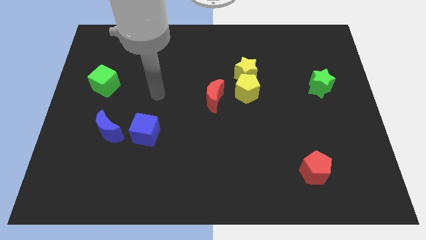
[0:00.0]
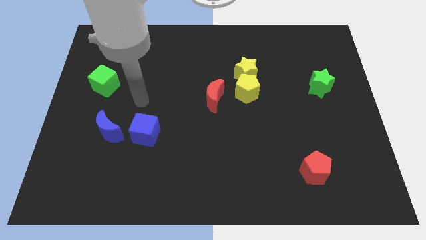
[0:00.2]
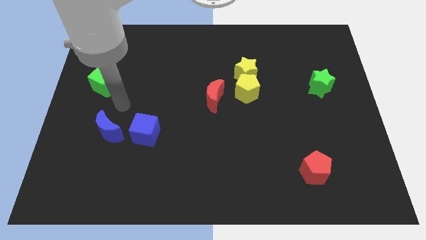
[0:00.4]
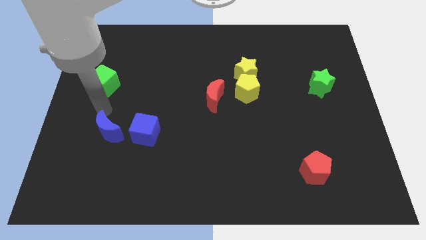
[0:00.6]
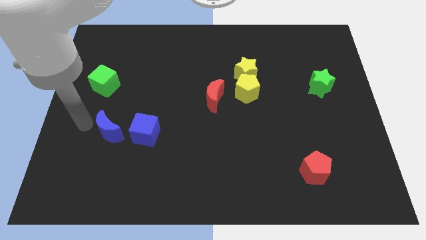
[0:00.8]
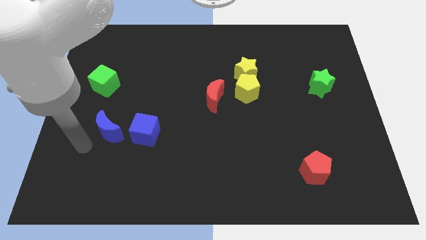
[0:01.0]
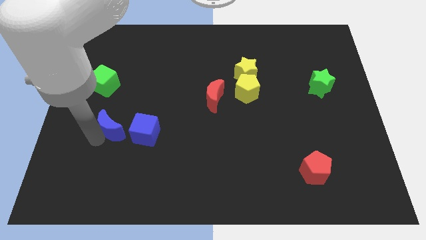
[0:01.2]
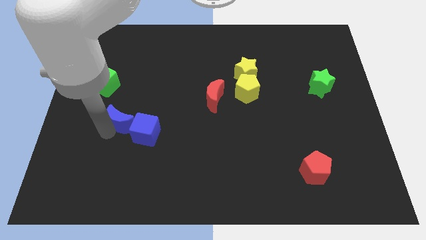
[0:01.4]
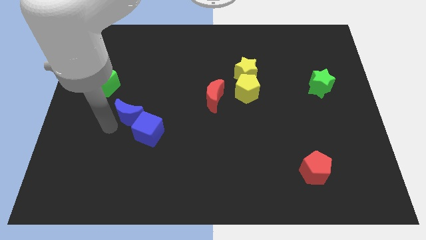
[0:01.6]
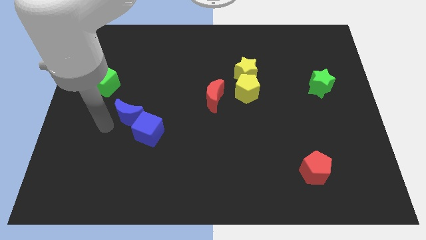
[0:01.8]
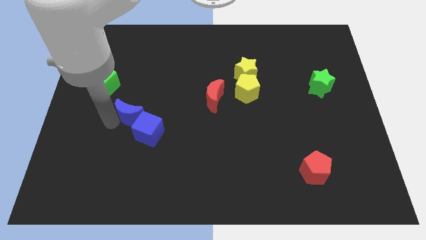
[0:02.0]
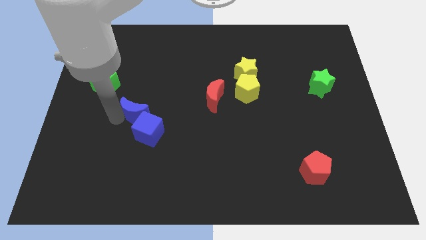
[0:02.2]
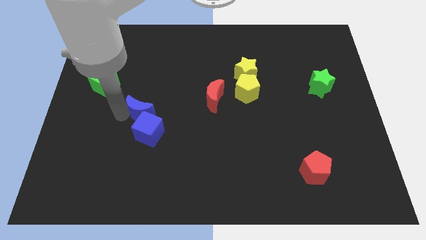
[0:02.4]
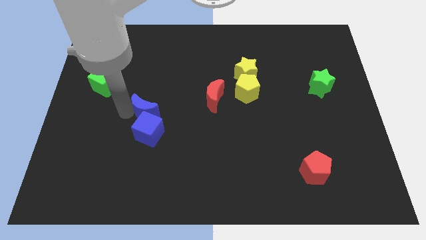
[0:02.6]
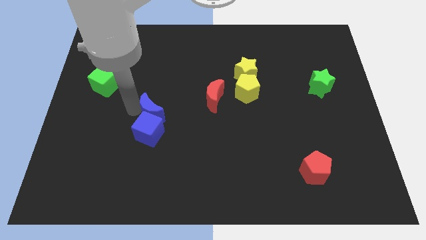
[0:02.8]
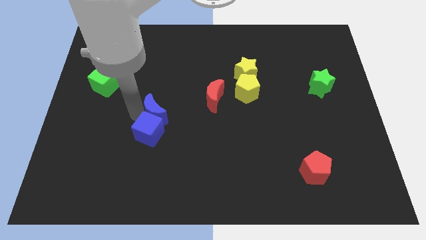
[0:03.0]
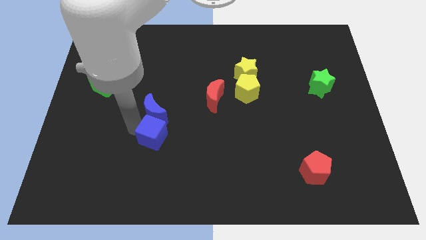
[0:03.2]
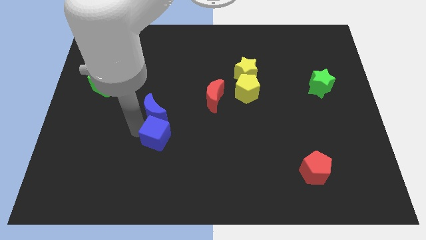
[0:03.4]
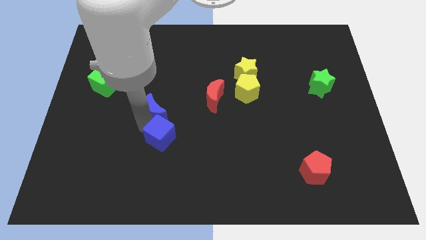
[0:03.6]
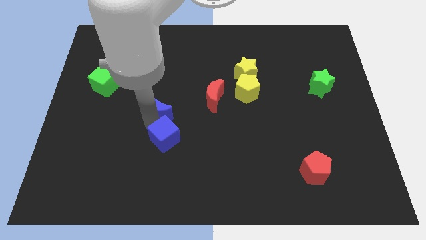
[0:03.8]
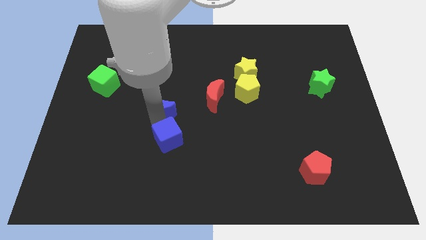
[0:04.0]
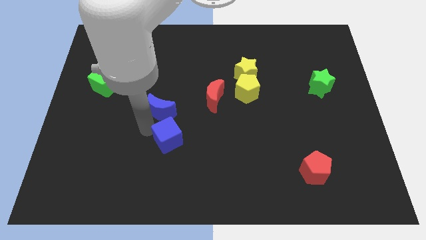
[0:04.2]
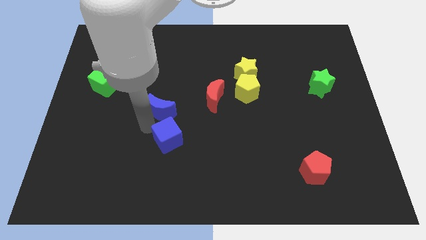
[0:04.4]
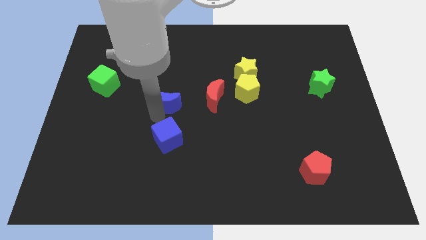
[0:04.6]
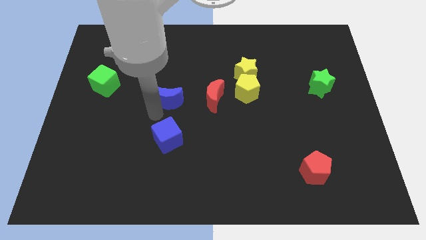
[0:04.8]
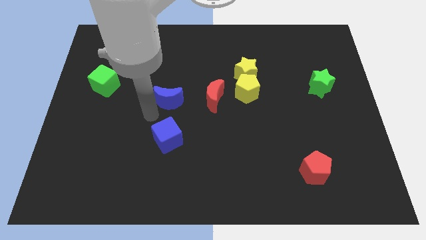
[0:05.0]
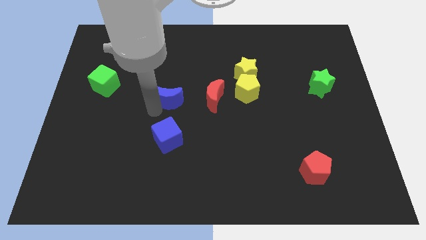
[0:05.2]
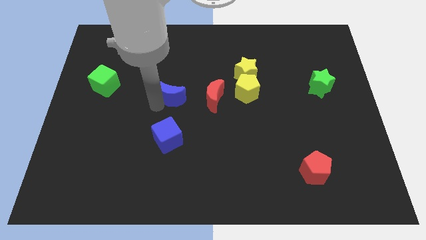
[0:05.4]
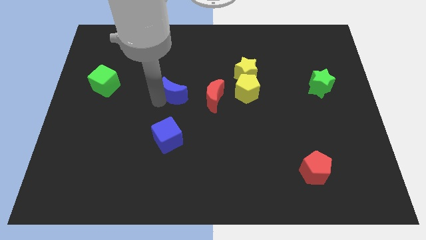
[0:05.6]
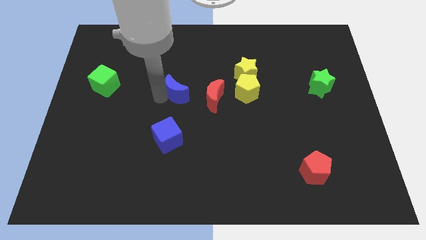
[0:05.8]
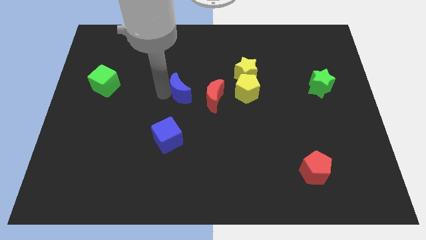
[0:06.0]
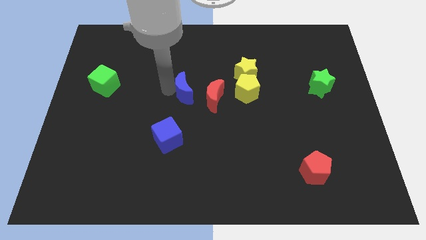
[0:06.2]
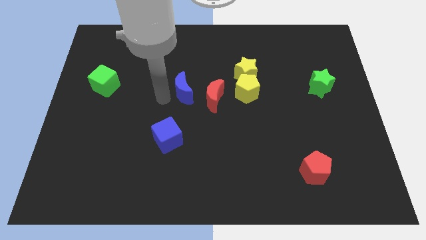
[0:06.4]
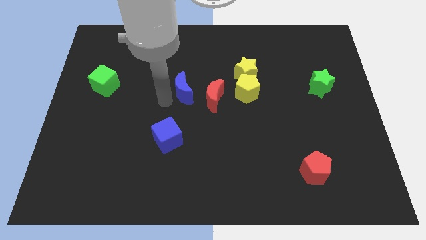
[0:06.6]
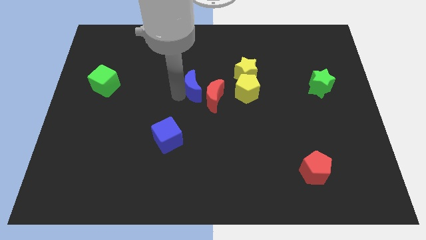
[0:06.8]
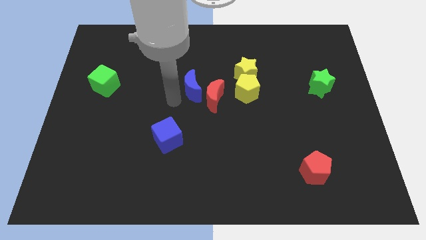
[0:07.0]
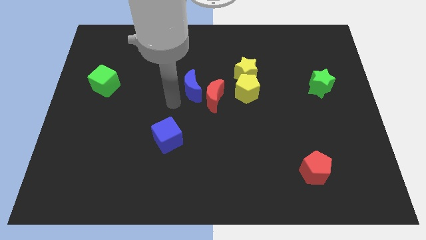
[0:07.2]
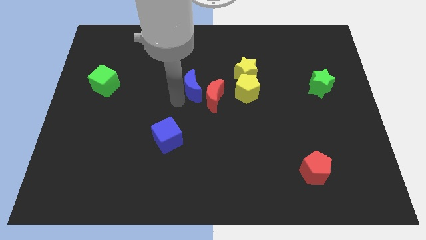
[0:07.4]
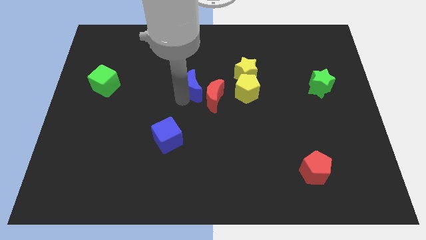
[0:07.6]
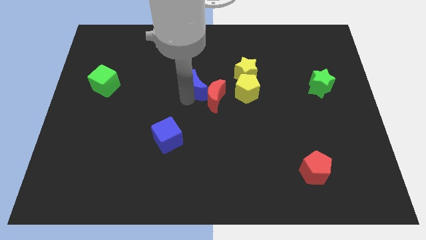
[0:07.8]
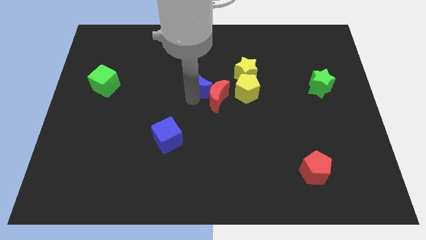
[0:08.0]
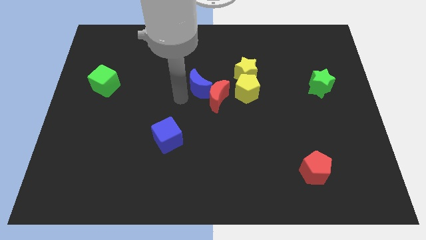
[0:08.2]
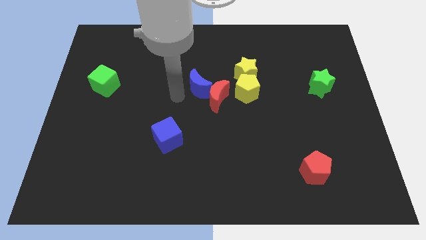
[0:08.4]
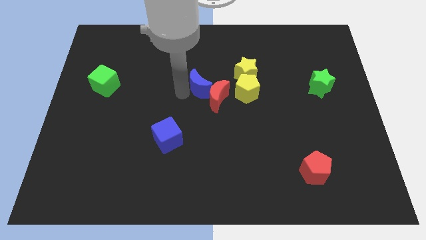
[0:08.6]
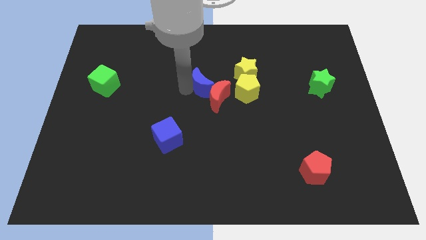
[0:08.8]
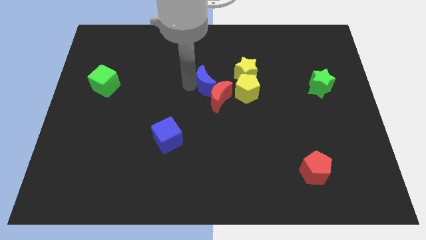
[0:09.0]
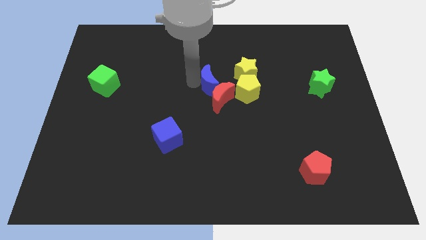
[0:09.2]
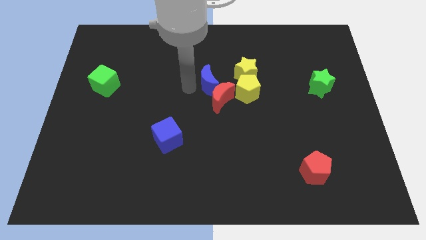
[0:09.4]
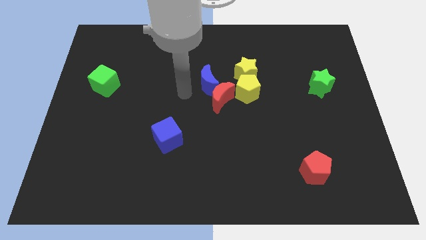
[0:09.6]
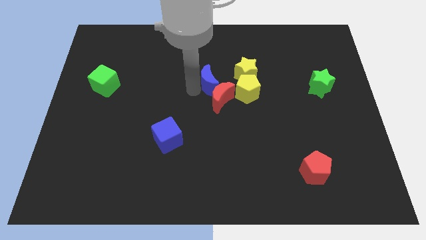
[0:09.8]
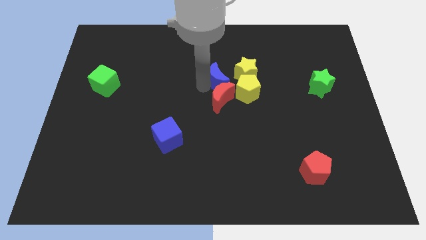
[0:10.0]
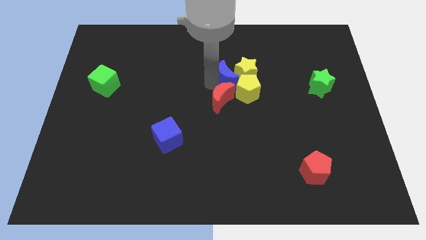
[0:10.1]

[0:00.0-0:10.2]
put the blue moon next to the yellow star

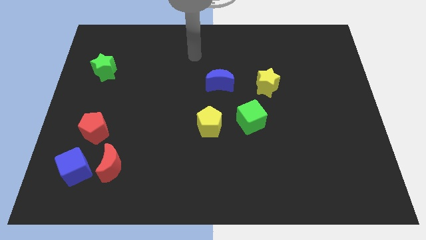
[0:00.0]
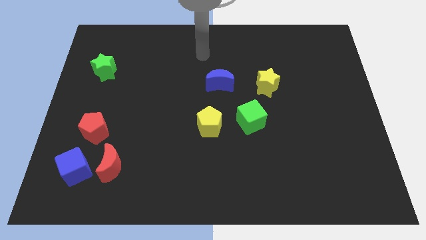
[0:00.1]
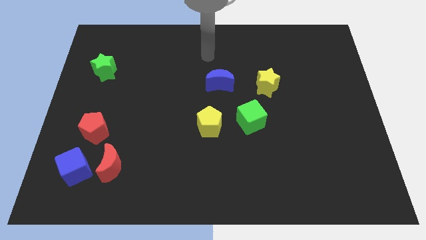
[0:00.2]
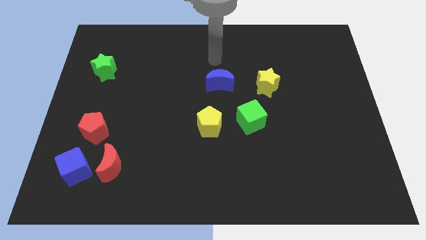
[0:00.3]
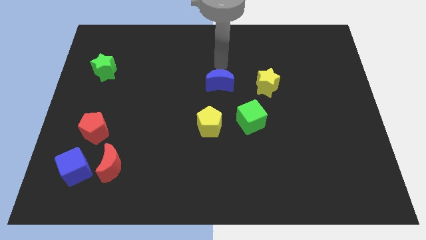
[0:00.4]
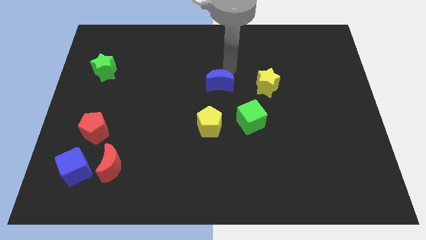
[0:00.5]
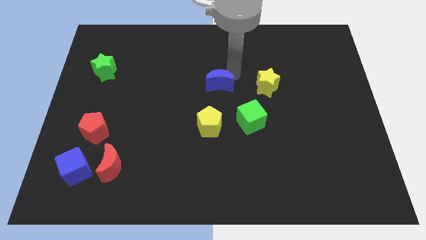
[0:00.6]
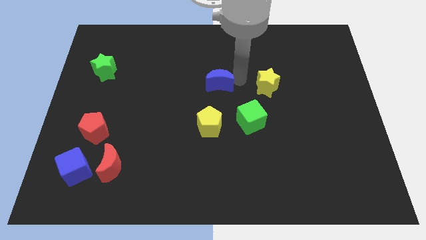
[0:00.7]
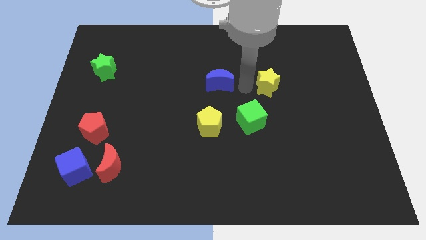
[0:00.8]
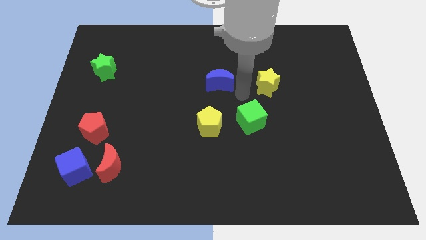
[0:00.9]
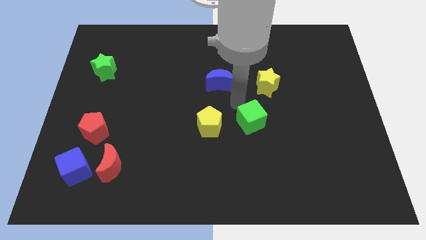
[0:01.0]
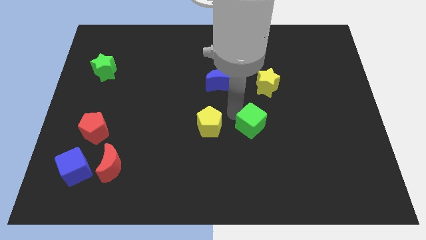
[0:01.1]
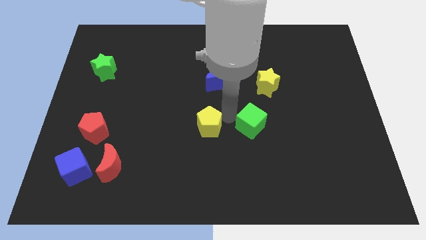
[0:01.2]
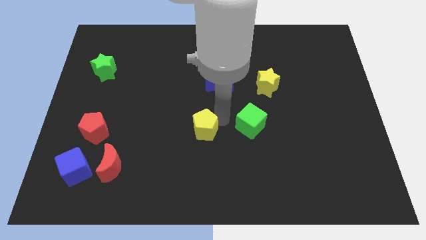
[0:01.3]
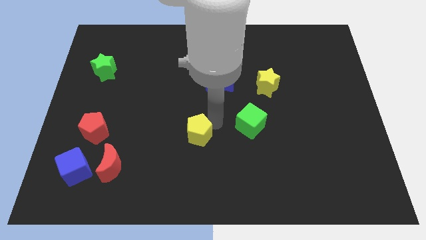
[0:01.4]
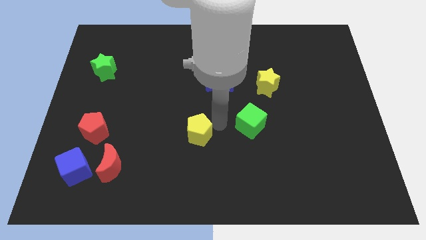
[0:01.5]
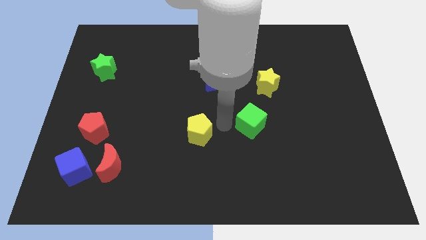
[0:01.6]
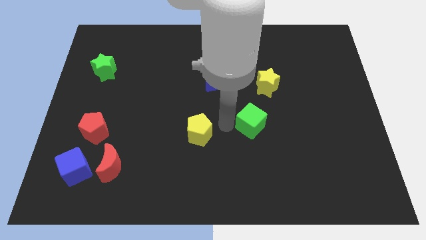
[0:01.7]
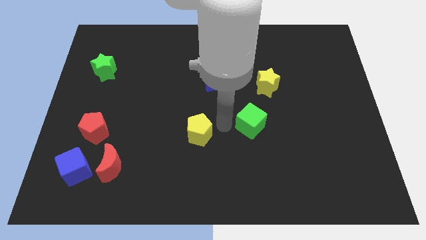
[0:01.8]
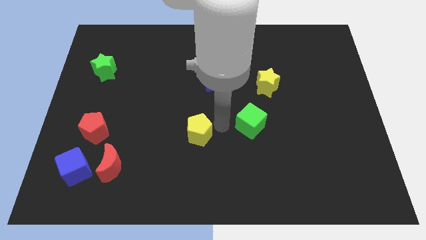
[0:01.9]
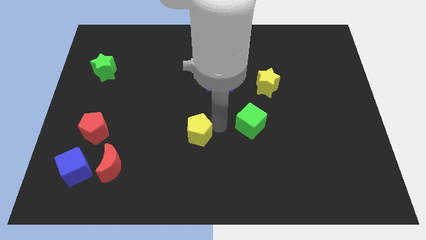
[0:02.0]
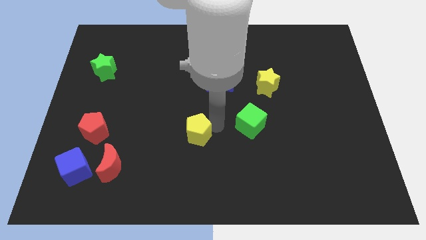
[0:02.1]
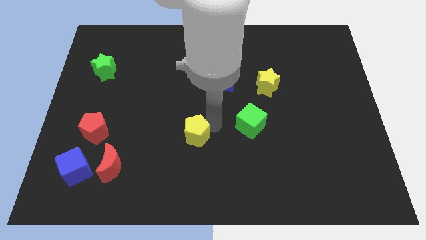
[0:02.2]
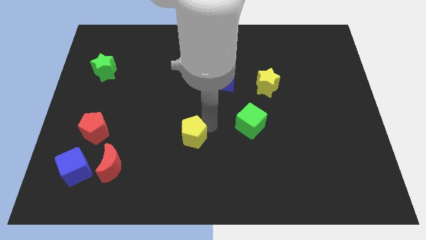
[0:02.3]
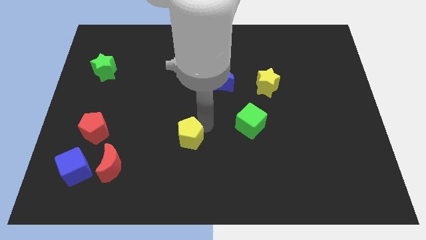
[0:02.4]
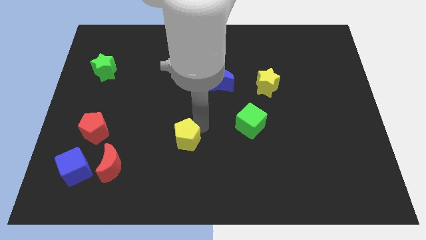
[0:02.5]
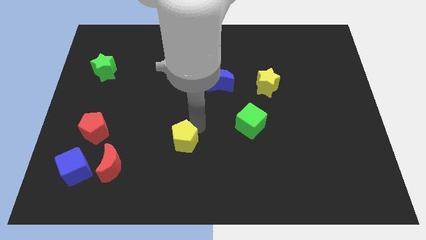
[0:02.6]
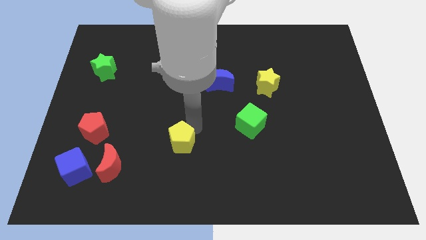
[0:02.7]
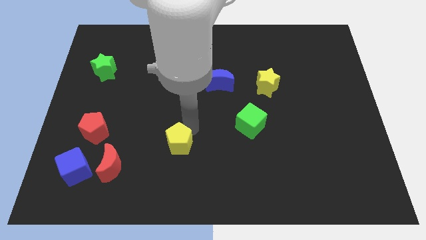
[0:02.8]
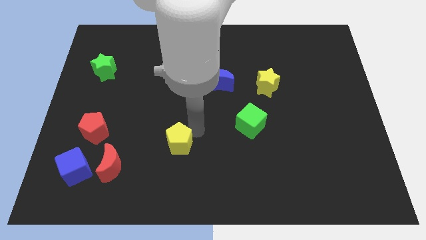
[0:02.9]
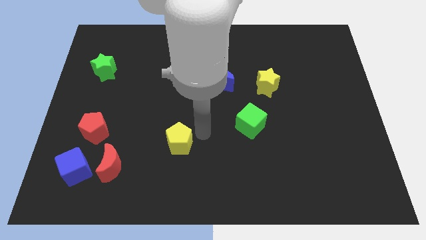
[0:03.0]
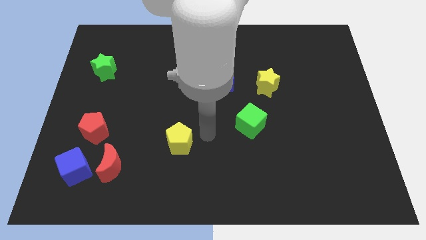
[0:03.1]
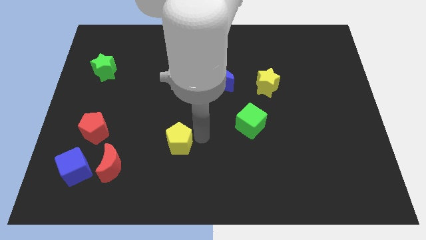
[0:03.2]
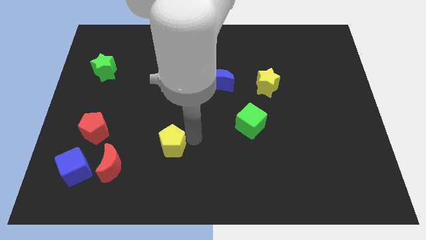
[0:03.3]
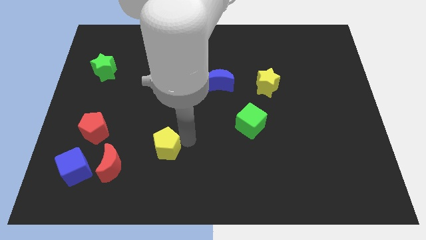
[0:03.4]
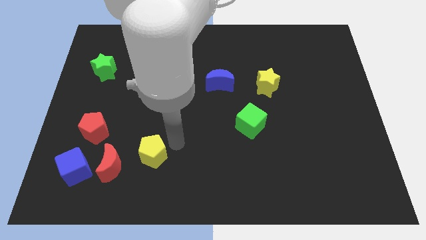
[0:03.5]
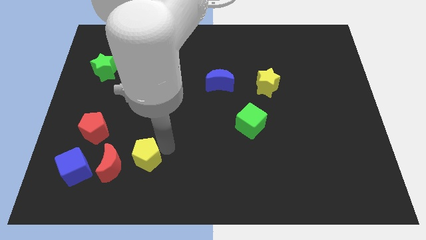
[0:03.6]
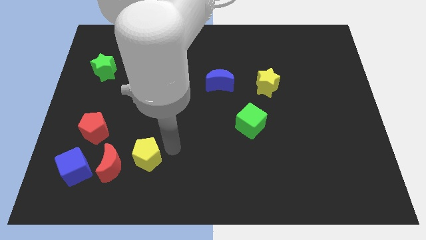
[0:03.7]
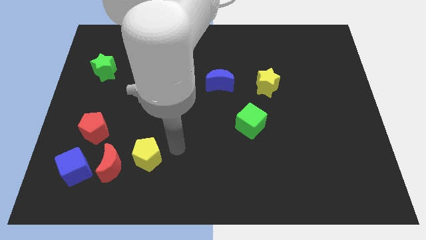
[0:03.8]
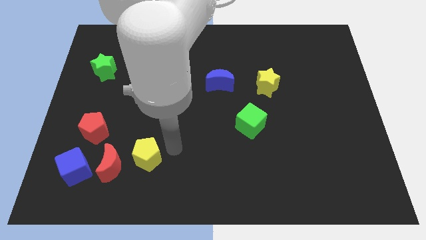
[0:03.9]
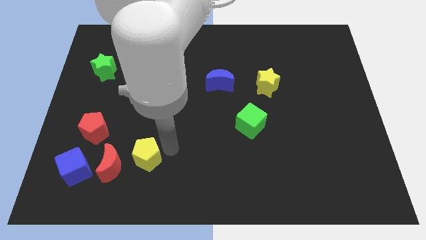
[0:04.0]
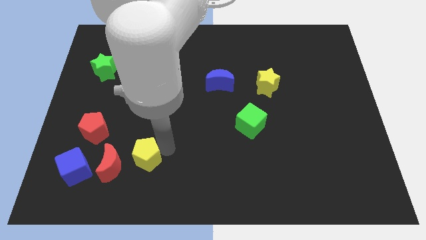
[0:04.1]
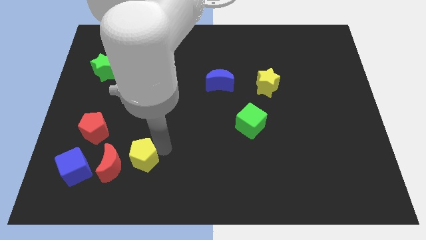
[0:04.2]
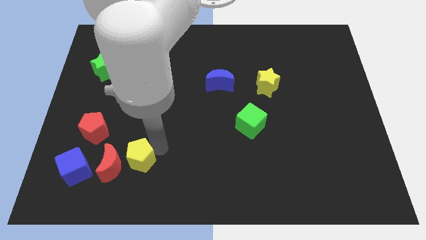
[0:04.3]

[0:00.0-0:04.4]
slide the yellow pentagon next to the red moon
